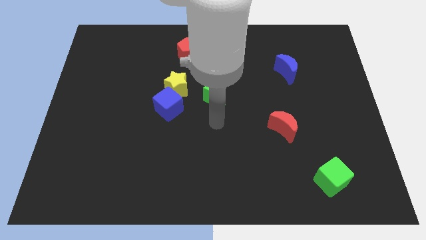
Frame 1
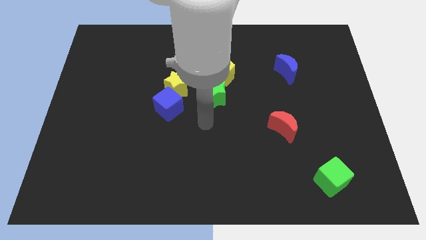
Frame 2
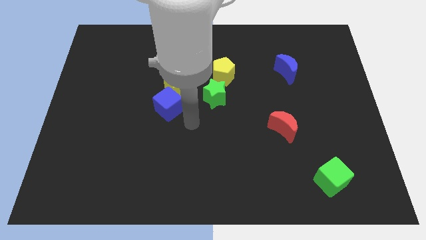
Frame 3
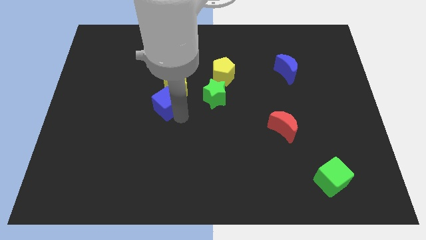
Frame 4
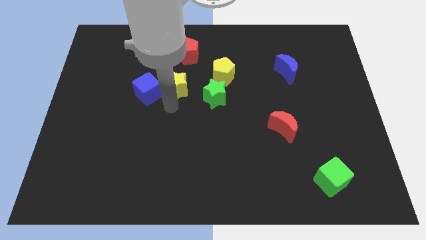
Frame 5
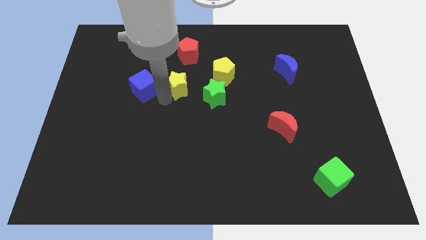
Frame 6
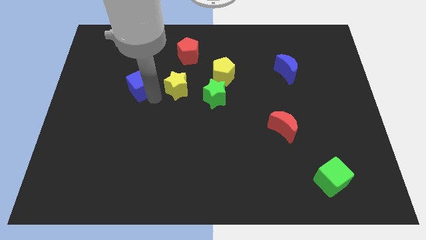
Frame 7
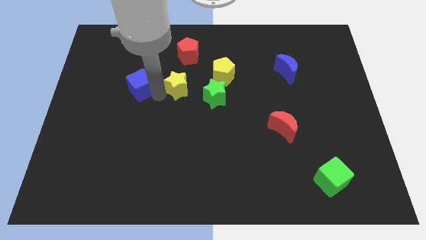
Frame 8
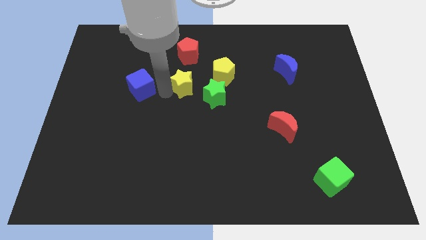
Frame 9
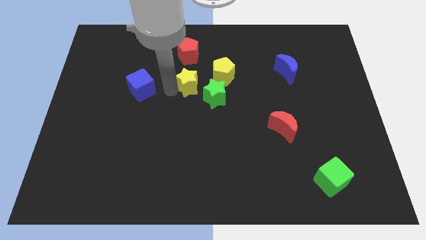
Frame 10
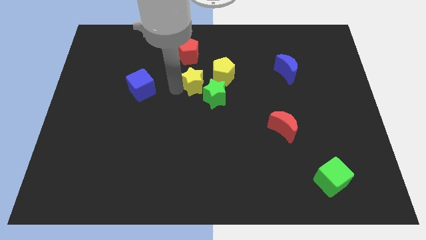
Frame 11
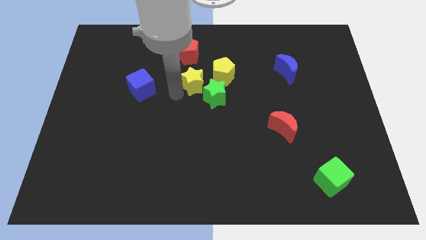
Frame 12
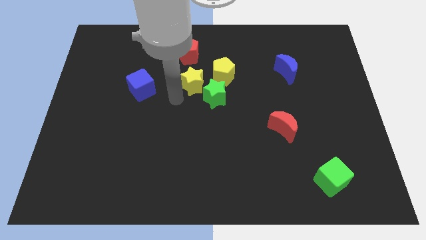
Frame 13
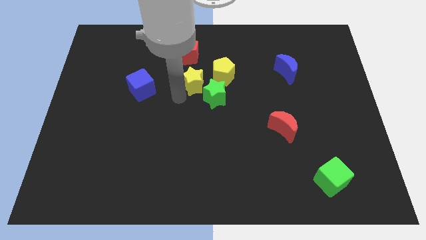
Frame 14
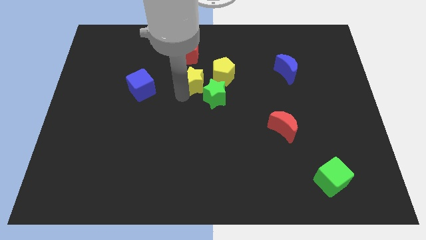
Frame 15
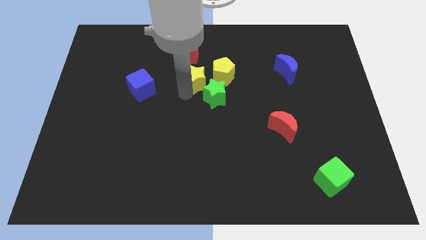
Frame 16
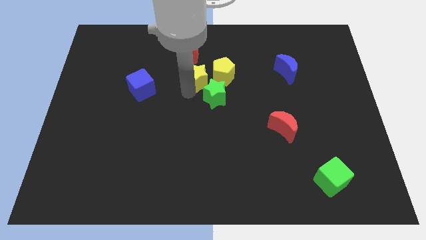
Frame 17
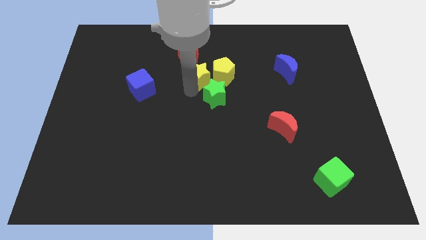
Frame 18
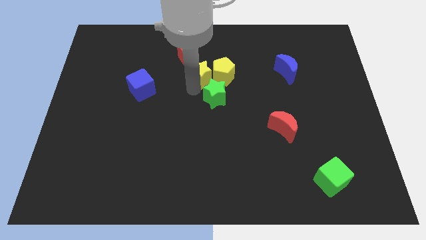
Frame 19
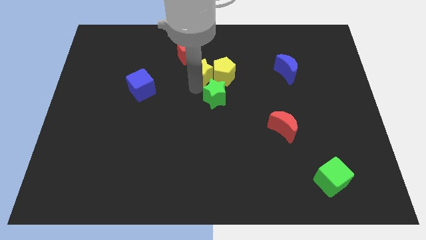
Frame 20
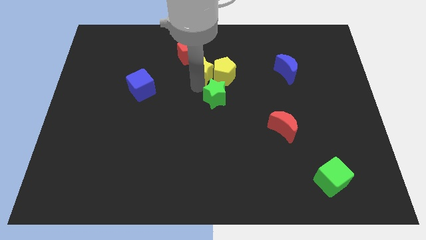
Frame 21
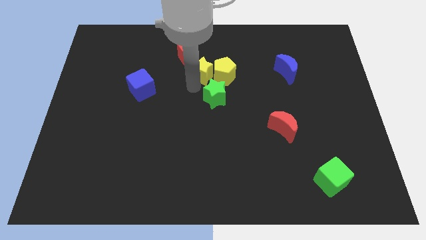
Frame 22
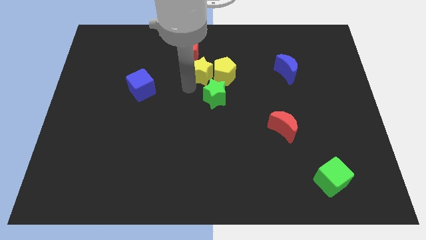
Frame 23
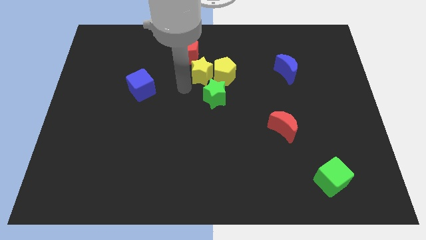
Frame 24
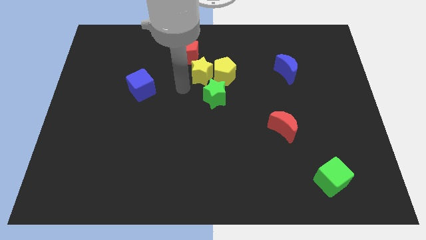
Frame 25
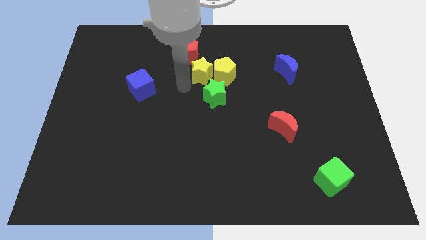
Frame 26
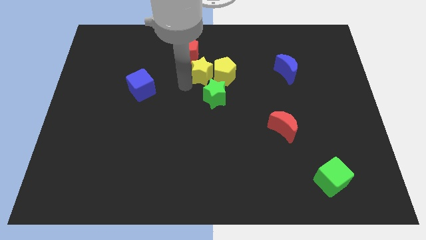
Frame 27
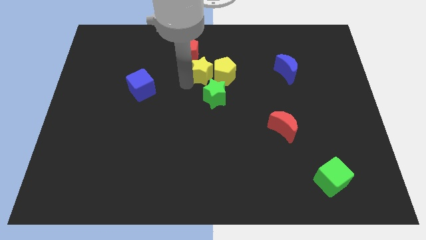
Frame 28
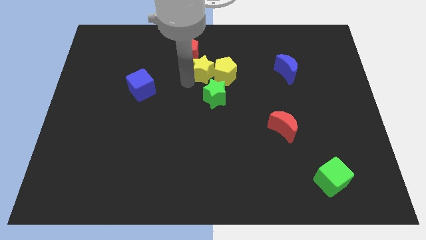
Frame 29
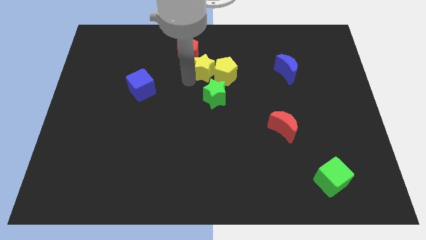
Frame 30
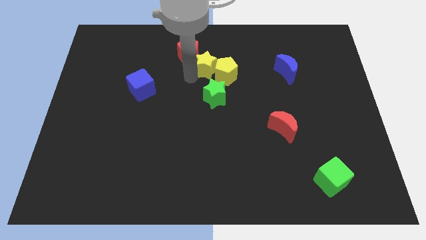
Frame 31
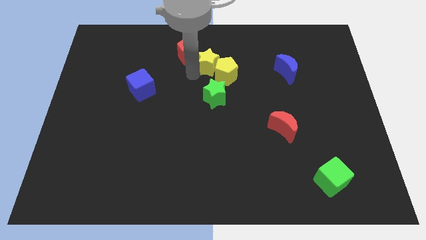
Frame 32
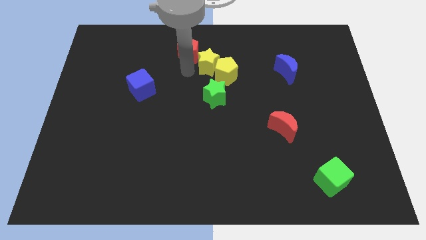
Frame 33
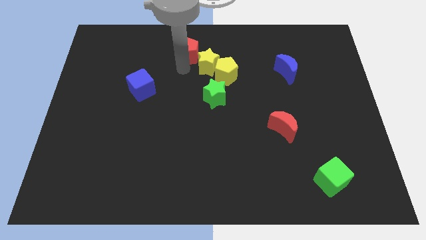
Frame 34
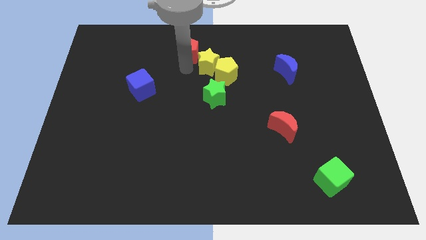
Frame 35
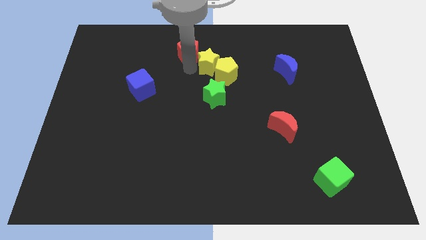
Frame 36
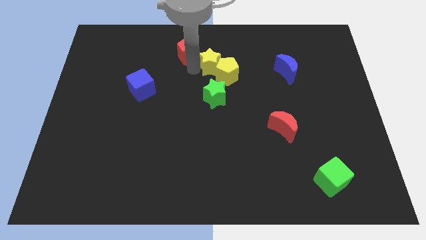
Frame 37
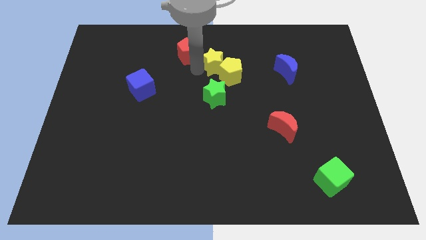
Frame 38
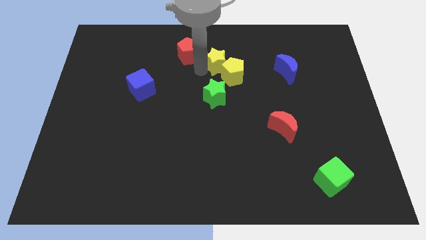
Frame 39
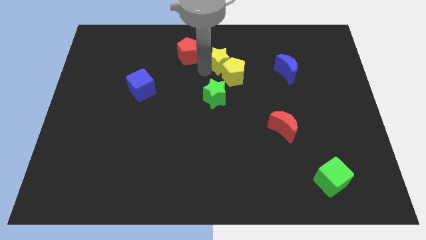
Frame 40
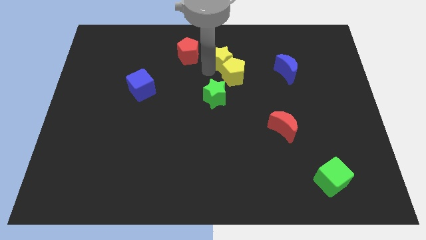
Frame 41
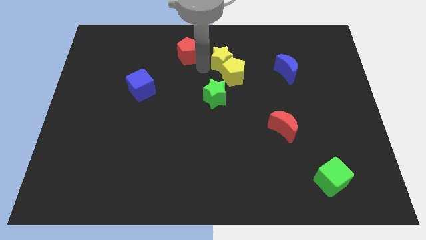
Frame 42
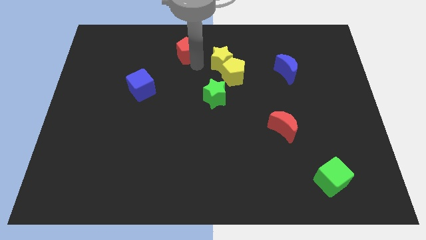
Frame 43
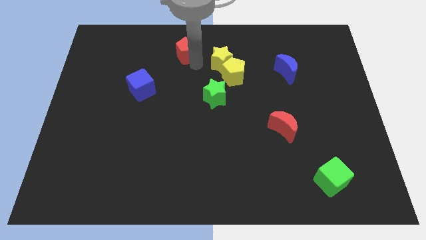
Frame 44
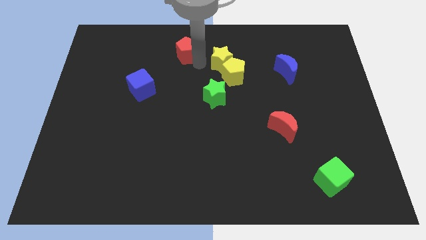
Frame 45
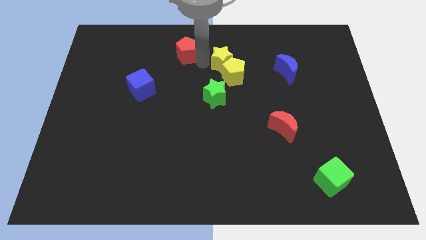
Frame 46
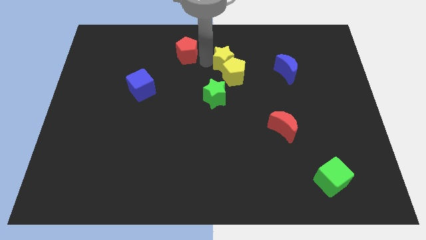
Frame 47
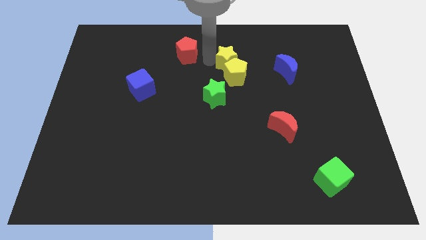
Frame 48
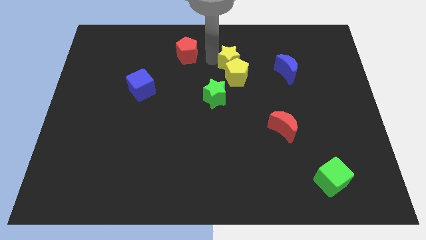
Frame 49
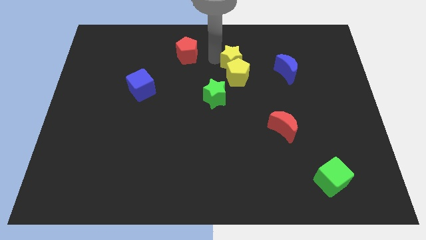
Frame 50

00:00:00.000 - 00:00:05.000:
slide the yellow star diagonally up and to the right of the yellow pentagon

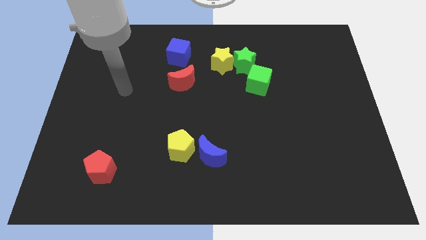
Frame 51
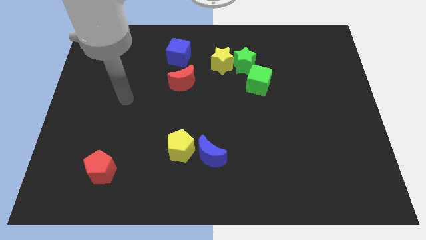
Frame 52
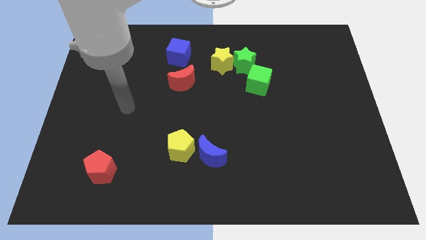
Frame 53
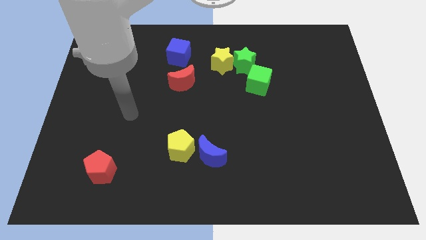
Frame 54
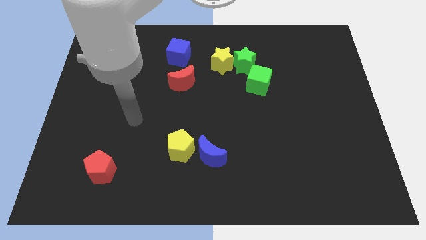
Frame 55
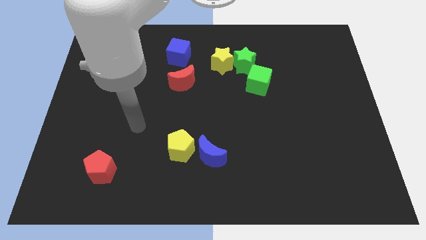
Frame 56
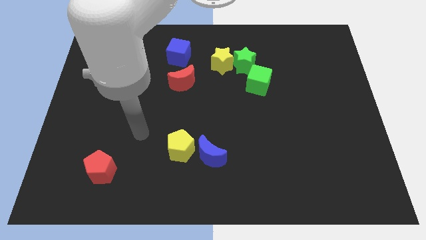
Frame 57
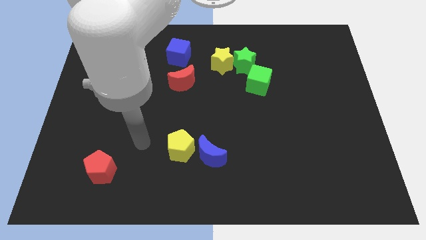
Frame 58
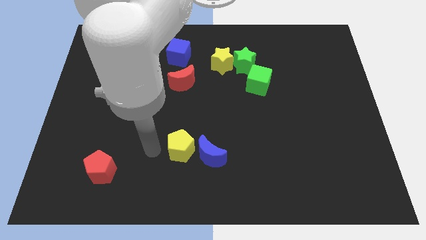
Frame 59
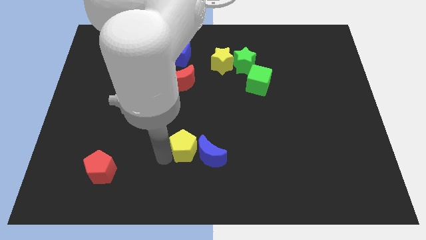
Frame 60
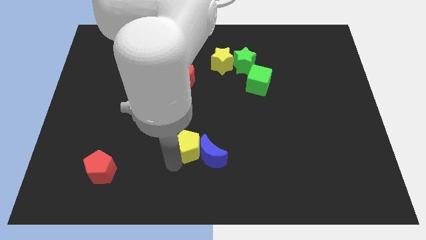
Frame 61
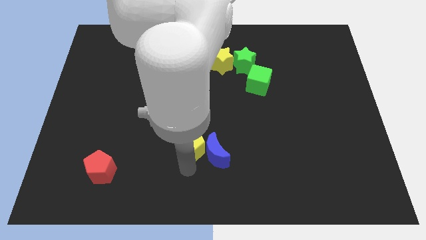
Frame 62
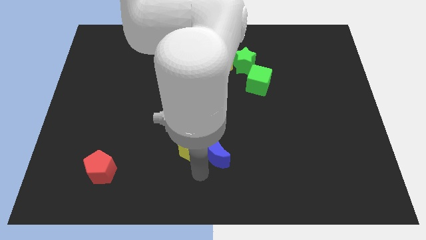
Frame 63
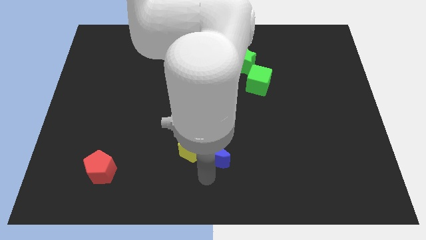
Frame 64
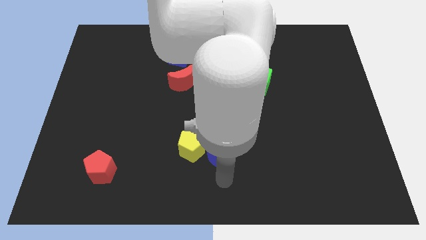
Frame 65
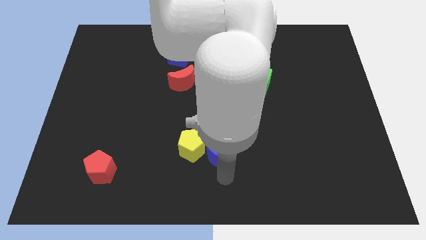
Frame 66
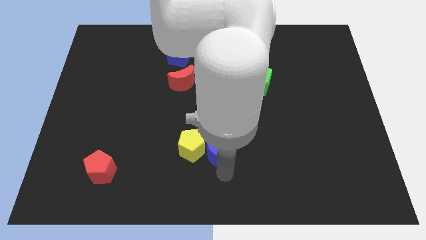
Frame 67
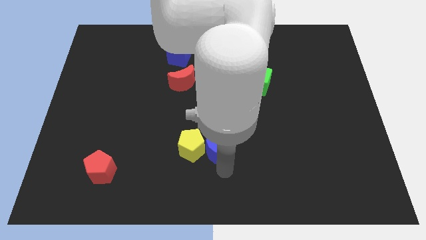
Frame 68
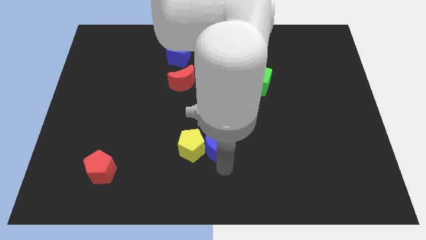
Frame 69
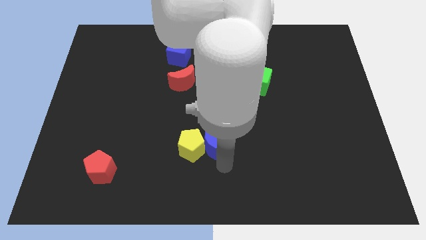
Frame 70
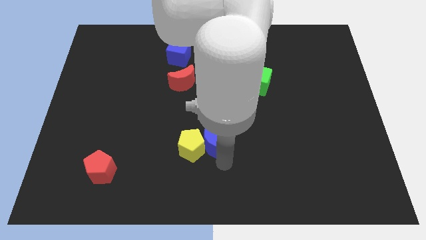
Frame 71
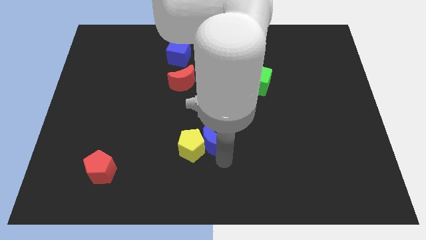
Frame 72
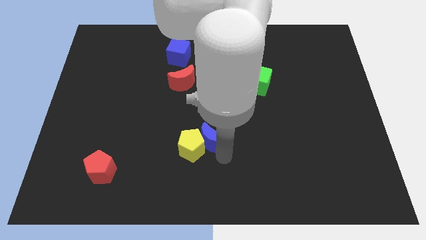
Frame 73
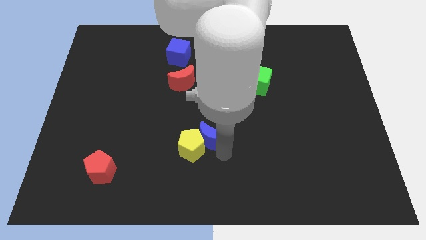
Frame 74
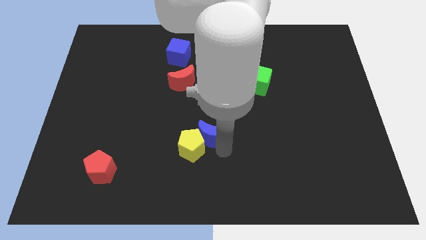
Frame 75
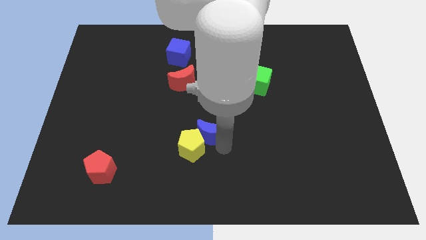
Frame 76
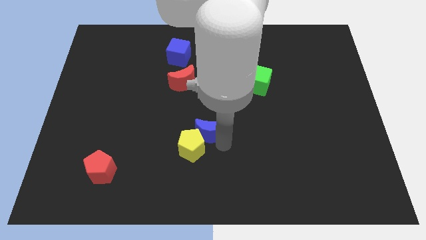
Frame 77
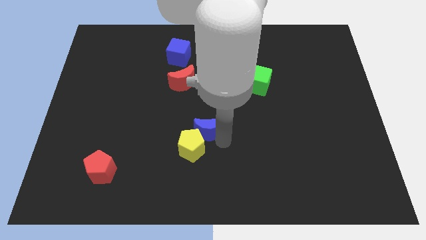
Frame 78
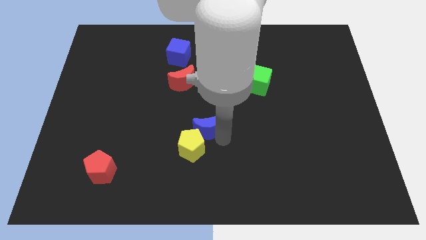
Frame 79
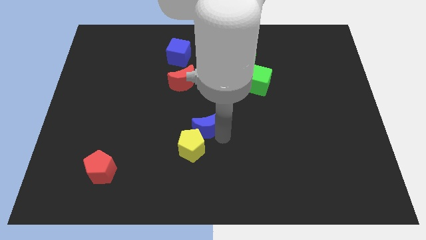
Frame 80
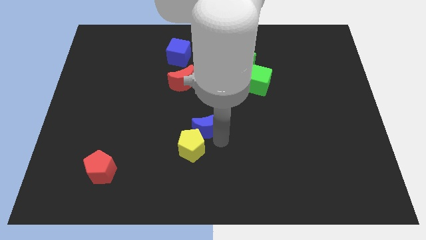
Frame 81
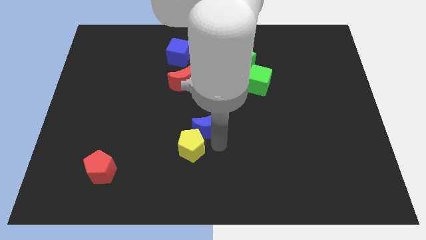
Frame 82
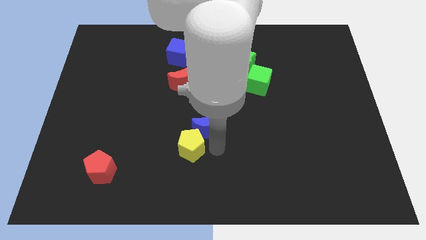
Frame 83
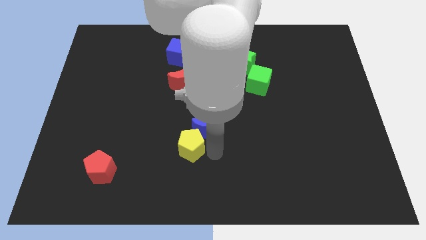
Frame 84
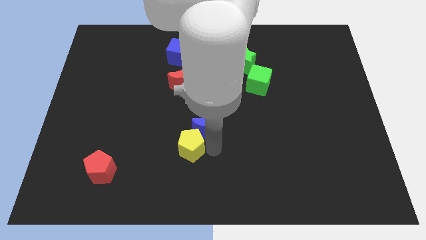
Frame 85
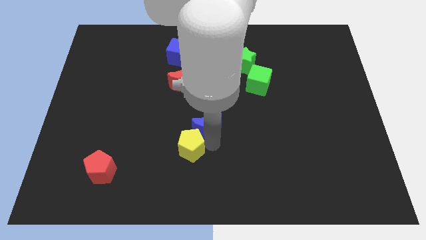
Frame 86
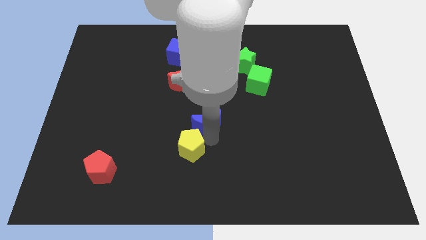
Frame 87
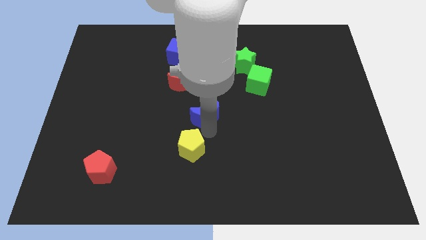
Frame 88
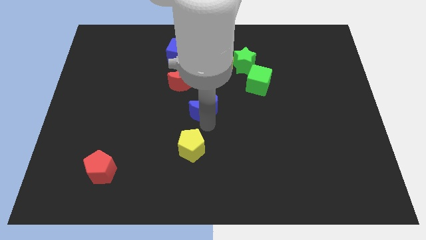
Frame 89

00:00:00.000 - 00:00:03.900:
move the blue moon diagonally down and to the right of the red moon
